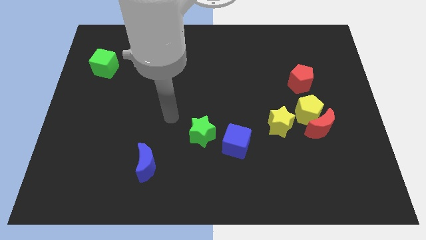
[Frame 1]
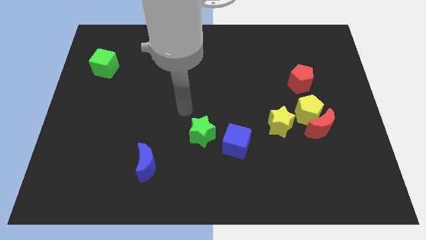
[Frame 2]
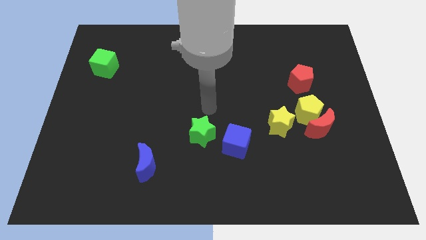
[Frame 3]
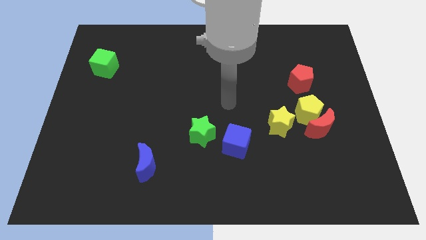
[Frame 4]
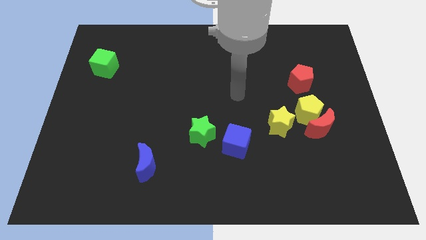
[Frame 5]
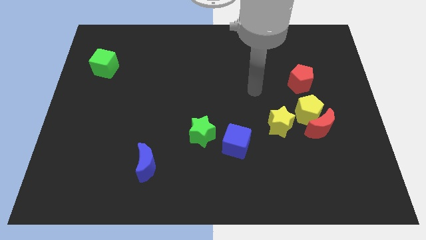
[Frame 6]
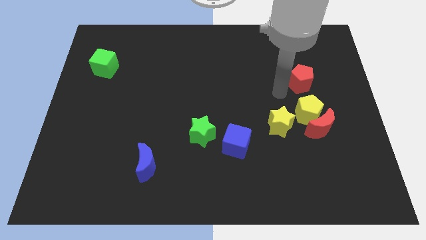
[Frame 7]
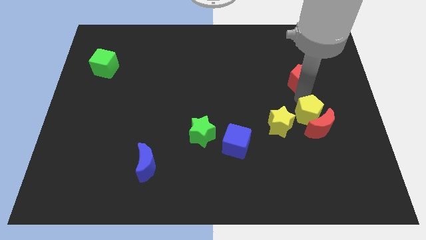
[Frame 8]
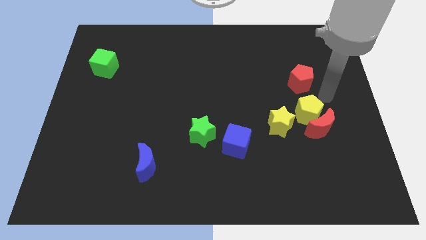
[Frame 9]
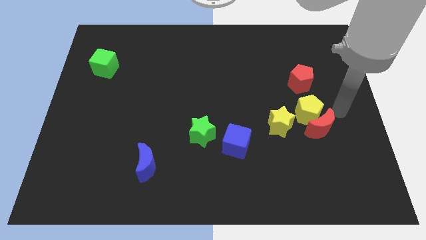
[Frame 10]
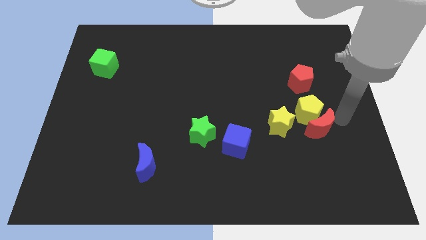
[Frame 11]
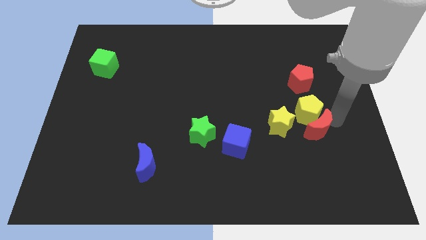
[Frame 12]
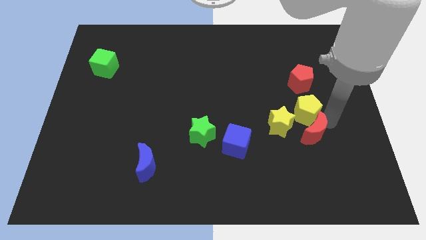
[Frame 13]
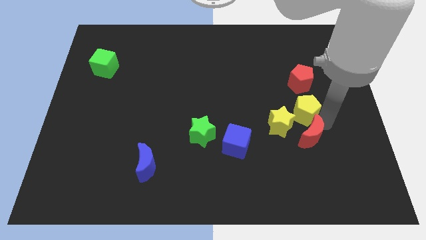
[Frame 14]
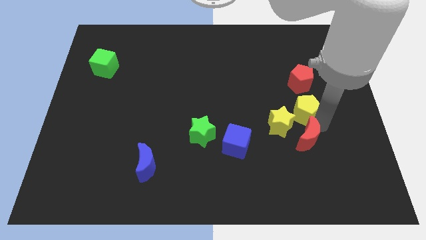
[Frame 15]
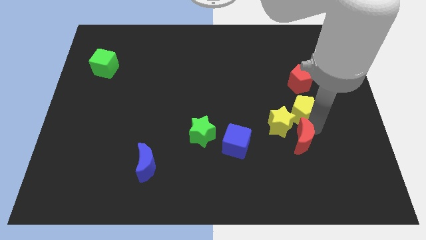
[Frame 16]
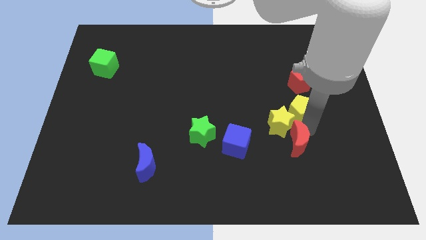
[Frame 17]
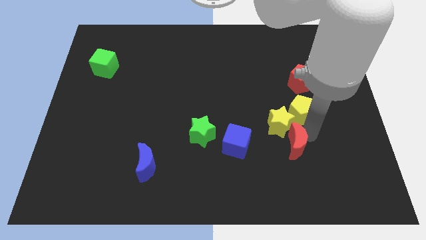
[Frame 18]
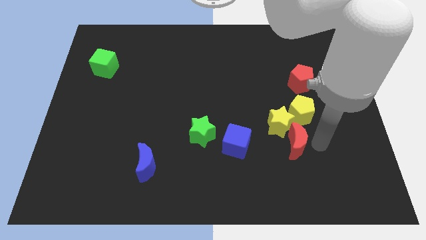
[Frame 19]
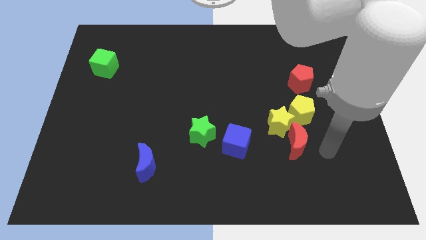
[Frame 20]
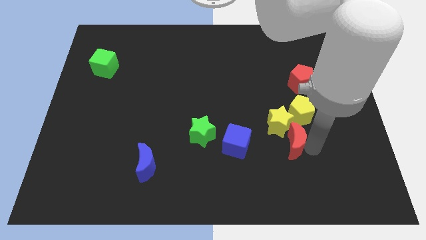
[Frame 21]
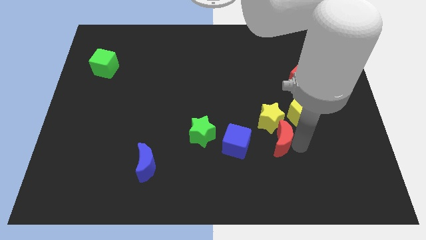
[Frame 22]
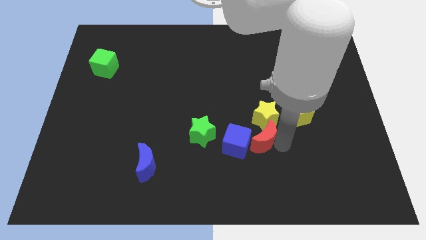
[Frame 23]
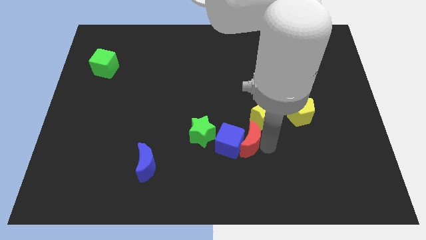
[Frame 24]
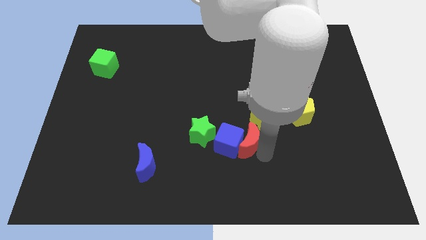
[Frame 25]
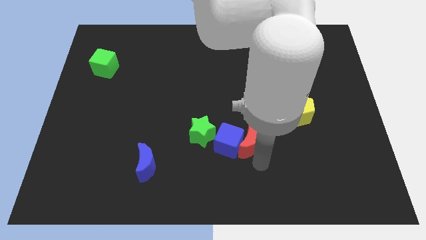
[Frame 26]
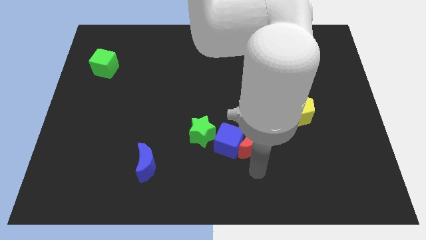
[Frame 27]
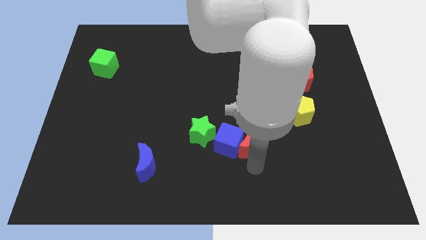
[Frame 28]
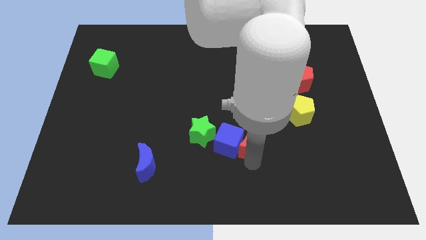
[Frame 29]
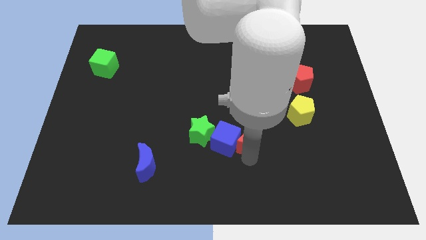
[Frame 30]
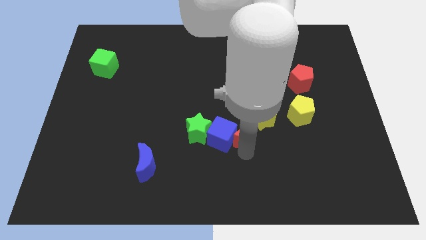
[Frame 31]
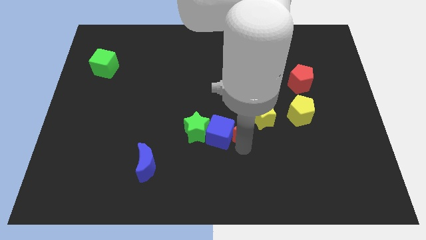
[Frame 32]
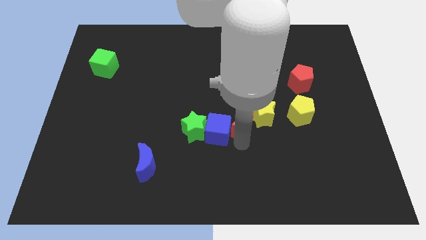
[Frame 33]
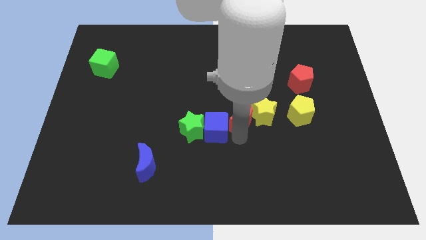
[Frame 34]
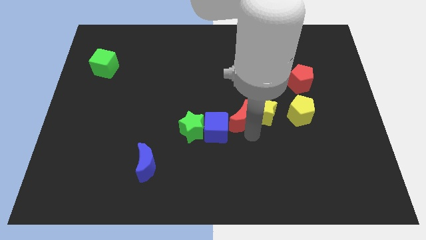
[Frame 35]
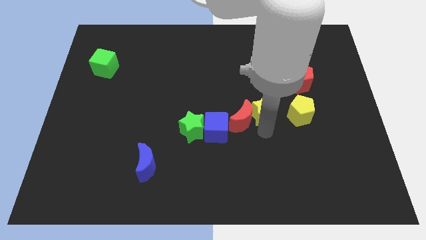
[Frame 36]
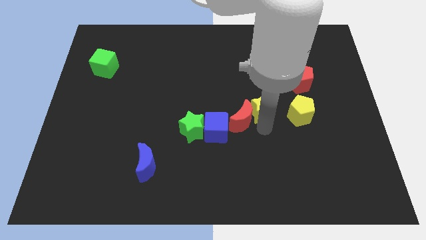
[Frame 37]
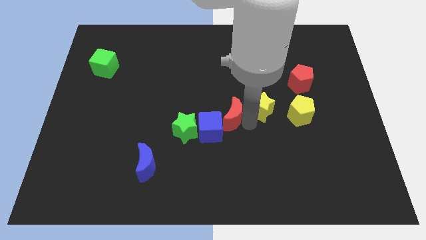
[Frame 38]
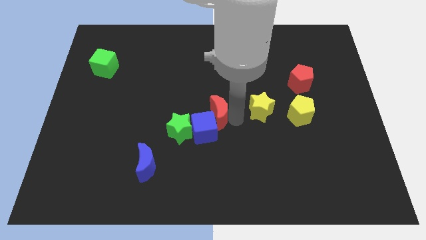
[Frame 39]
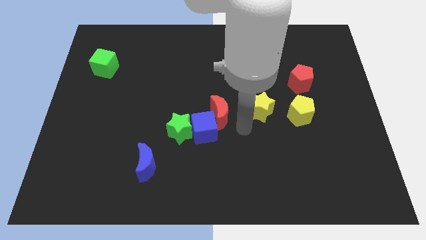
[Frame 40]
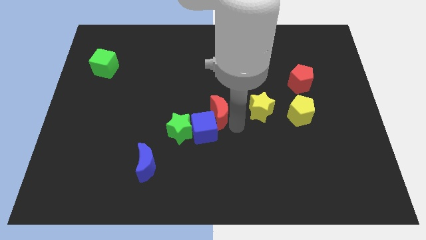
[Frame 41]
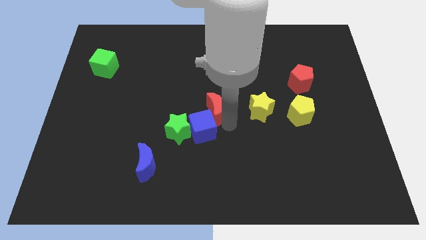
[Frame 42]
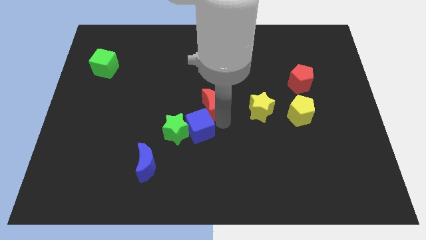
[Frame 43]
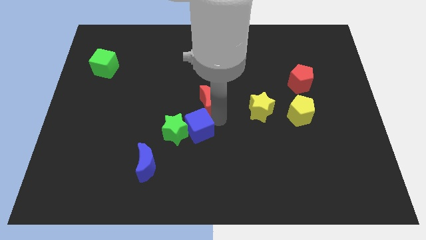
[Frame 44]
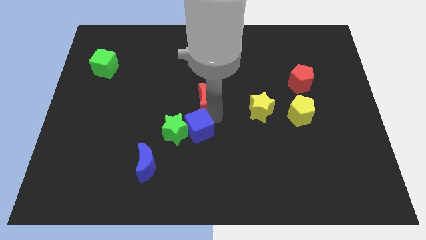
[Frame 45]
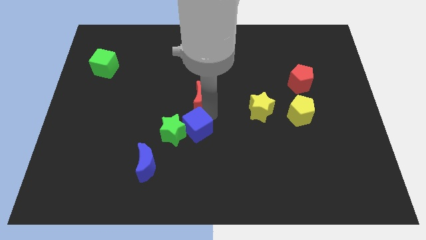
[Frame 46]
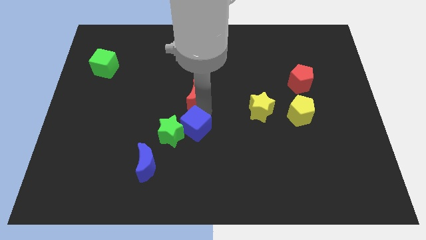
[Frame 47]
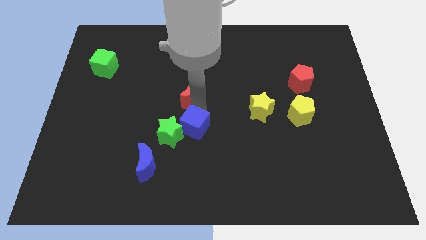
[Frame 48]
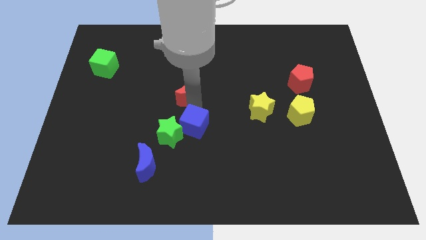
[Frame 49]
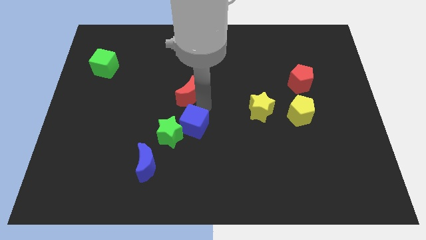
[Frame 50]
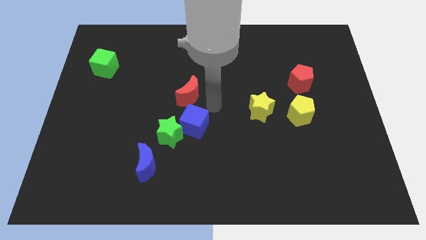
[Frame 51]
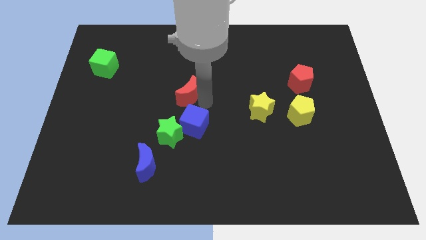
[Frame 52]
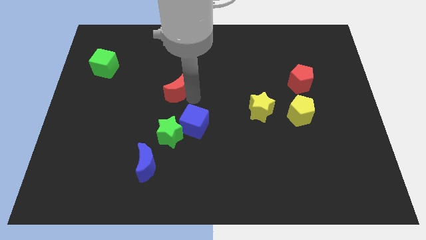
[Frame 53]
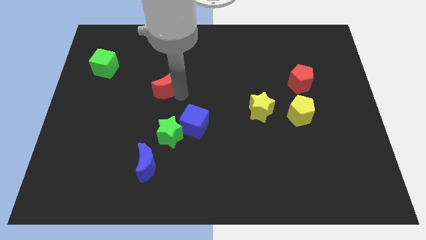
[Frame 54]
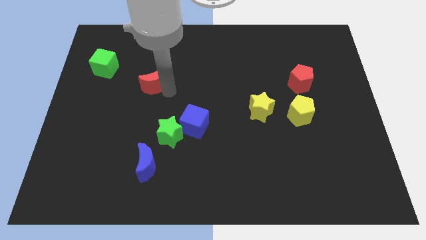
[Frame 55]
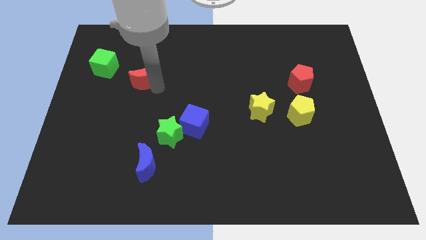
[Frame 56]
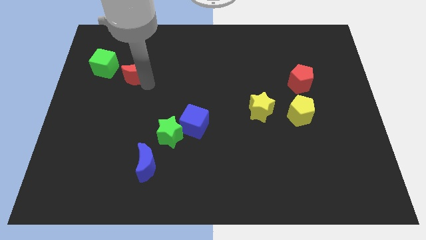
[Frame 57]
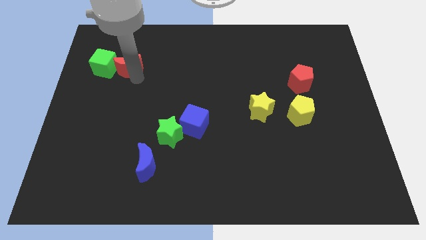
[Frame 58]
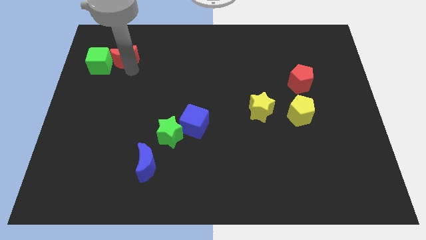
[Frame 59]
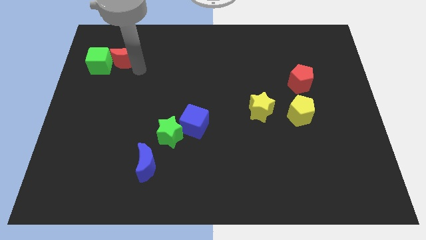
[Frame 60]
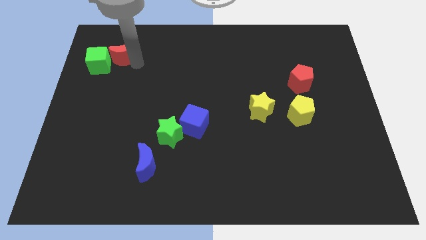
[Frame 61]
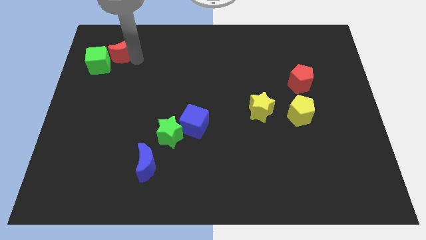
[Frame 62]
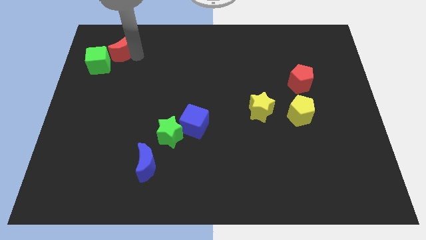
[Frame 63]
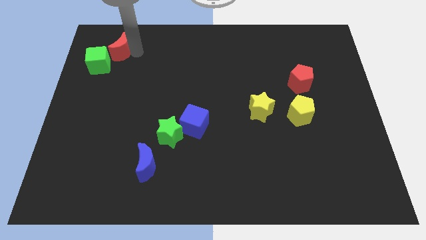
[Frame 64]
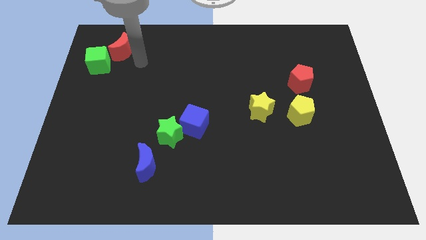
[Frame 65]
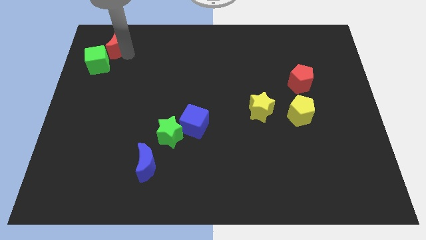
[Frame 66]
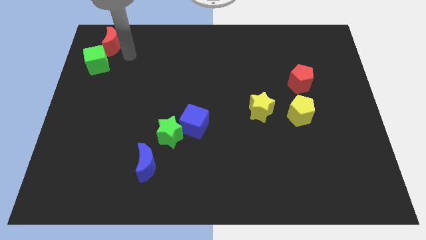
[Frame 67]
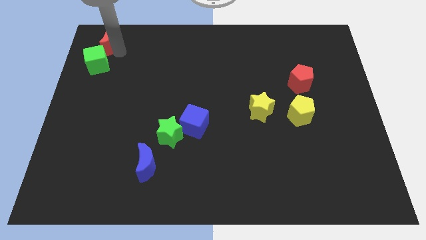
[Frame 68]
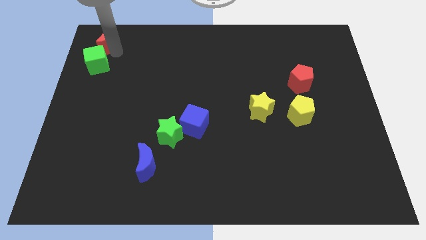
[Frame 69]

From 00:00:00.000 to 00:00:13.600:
slide the red moon to the upper left corner
